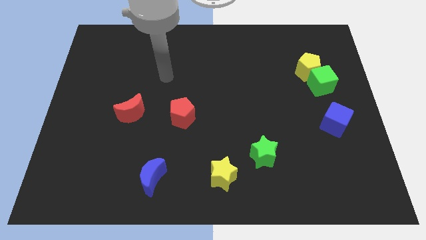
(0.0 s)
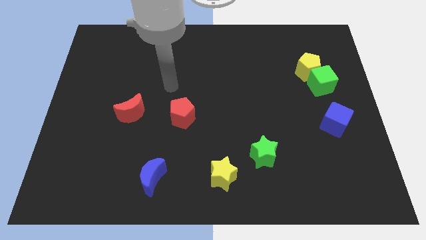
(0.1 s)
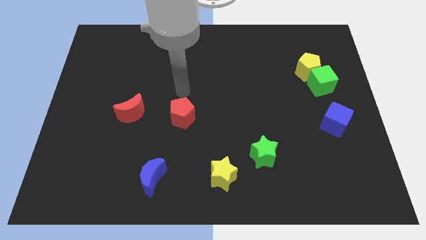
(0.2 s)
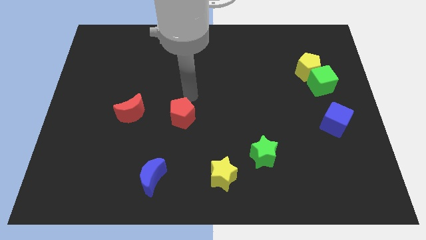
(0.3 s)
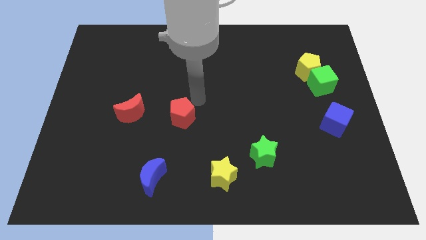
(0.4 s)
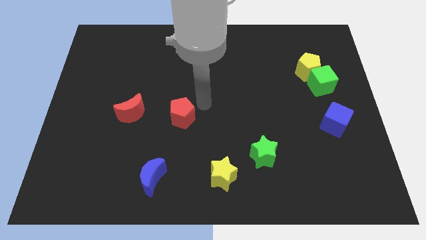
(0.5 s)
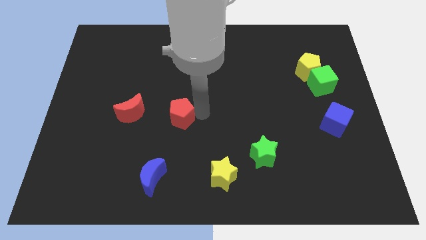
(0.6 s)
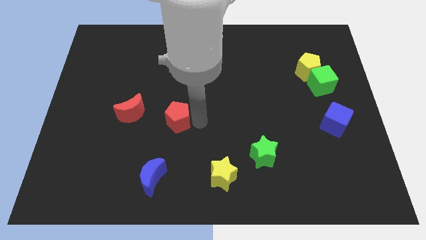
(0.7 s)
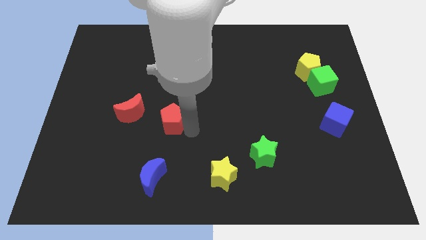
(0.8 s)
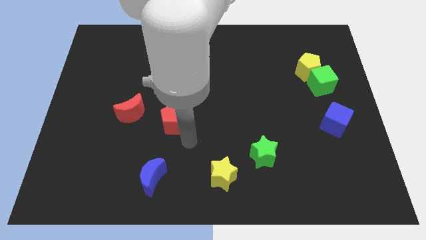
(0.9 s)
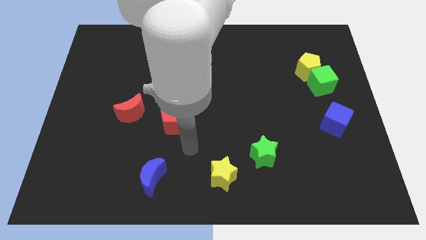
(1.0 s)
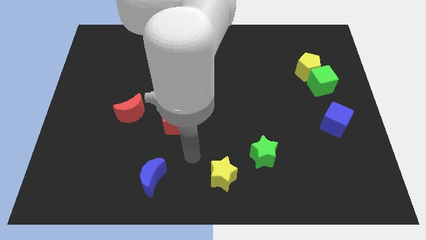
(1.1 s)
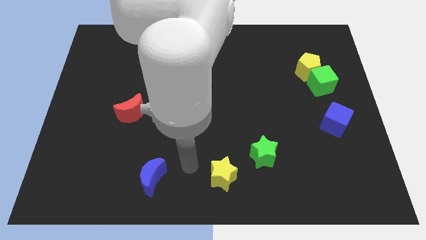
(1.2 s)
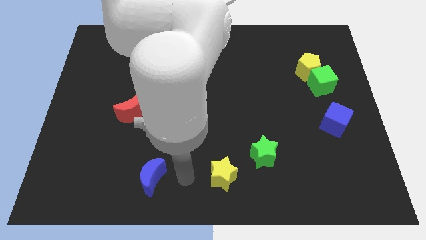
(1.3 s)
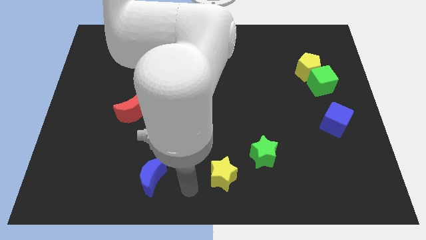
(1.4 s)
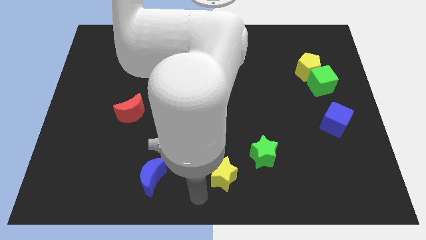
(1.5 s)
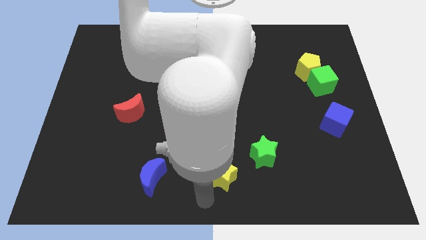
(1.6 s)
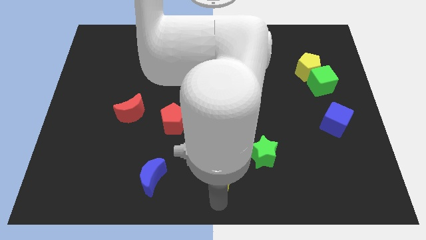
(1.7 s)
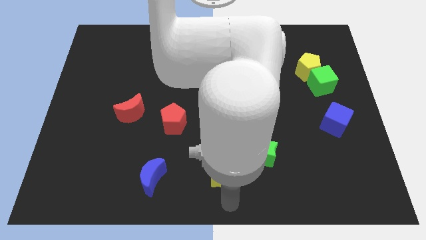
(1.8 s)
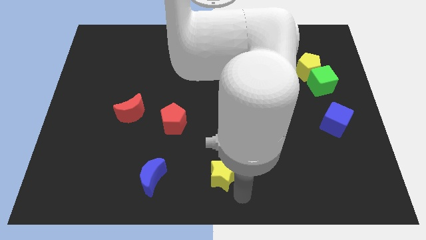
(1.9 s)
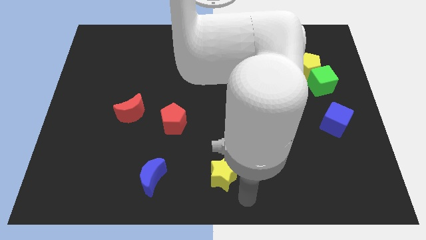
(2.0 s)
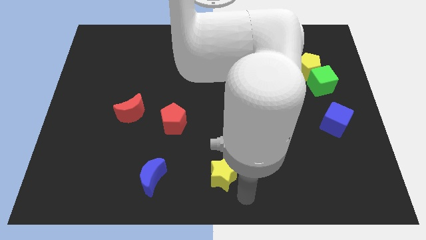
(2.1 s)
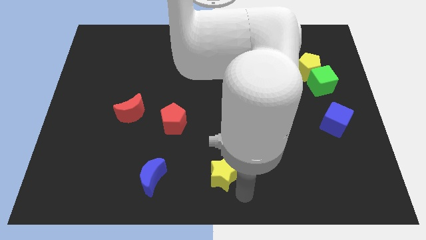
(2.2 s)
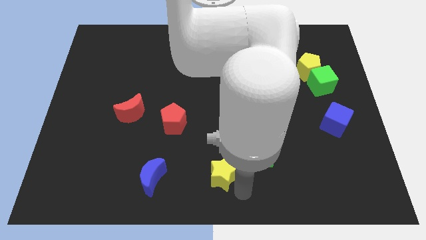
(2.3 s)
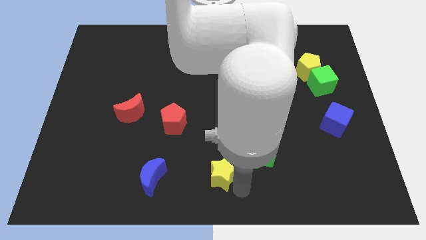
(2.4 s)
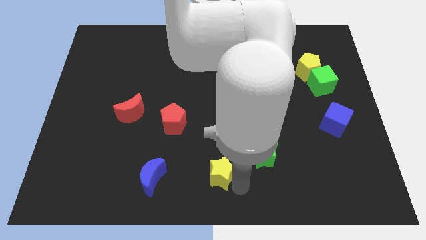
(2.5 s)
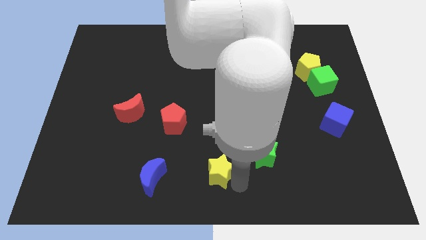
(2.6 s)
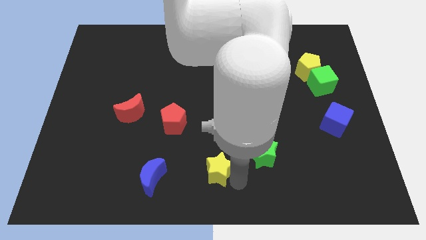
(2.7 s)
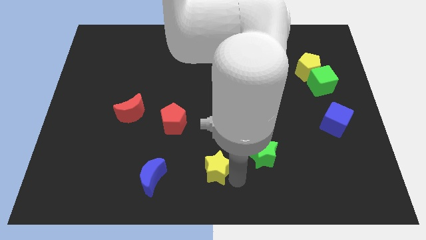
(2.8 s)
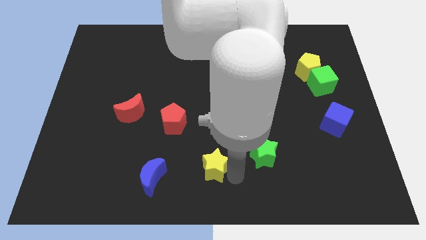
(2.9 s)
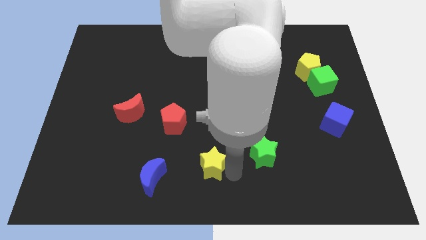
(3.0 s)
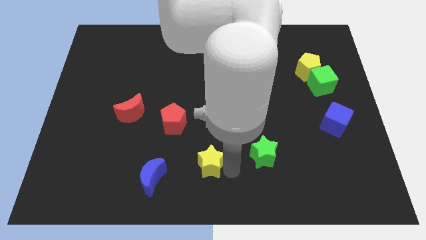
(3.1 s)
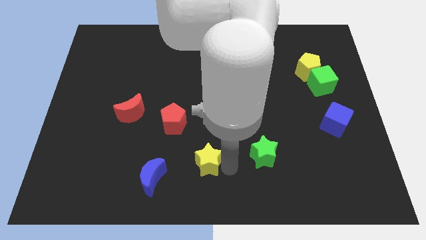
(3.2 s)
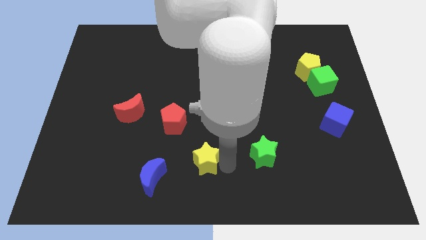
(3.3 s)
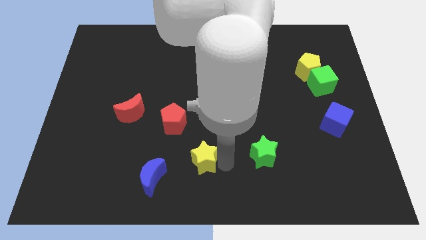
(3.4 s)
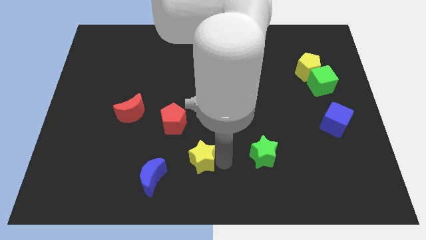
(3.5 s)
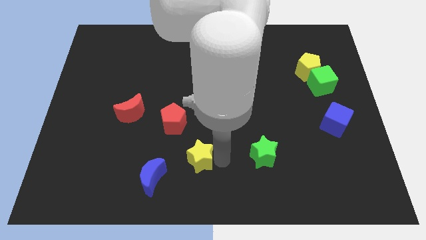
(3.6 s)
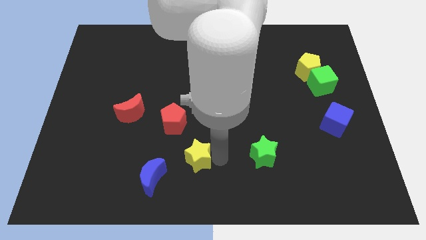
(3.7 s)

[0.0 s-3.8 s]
slightly push the yellow star diagonally up and to the left

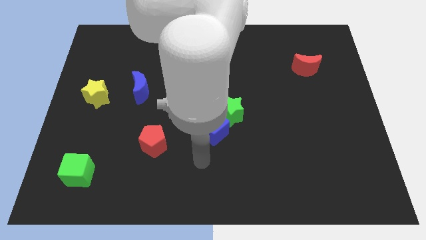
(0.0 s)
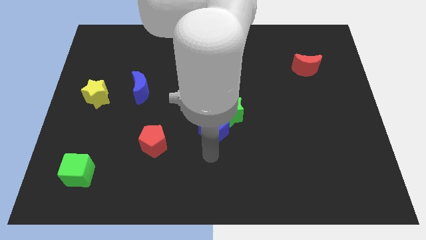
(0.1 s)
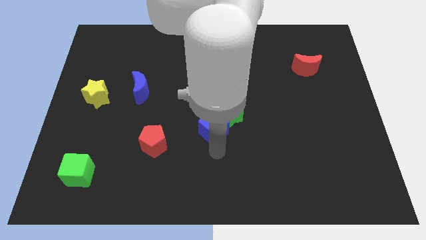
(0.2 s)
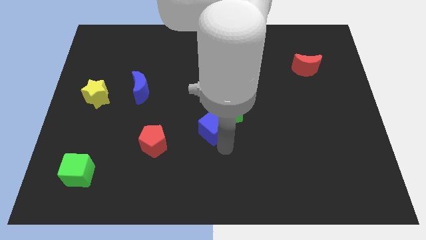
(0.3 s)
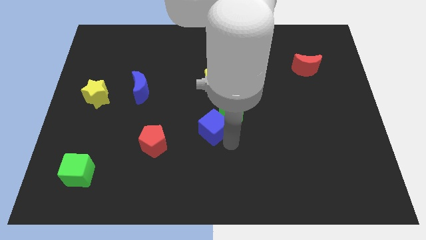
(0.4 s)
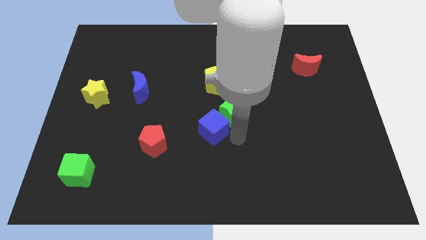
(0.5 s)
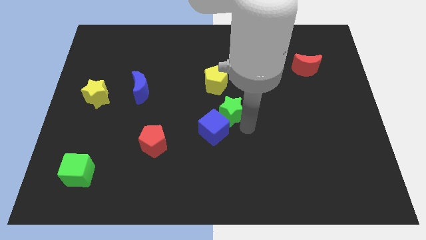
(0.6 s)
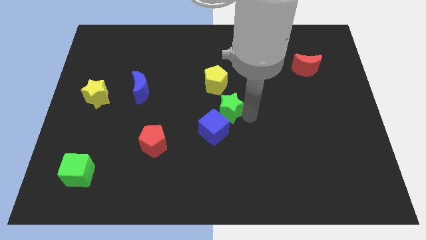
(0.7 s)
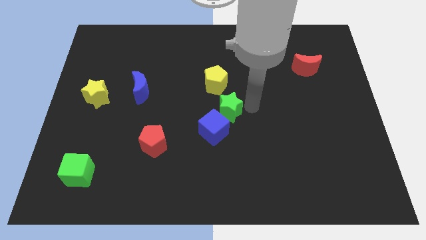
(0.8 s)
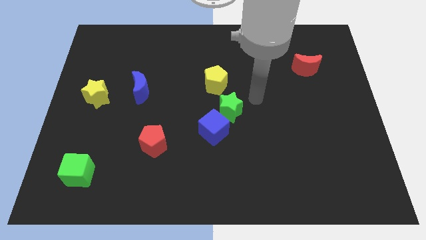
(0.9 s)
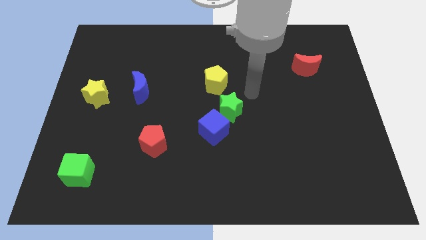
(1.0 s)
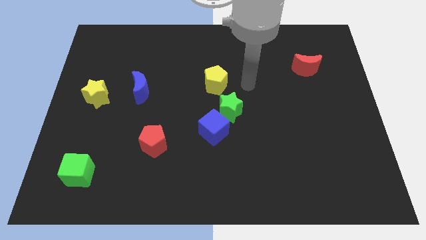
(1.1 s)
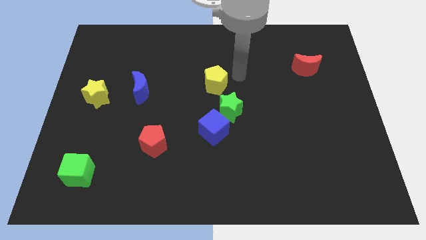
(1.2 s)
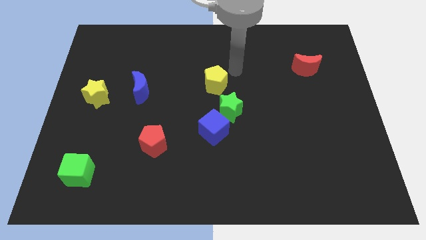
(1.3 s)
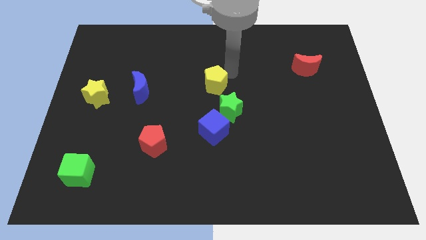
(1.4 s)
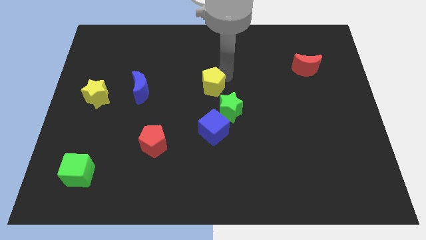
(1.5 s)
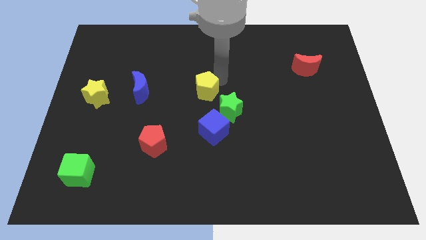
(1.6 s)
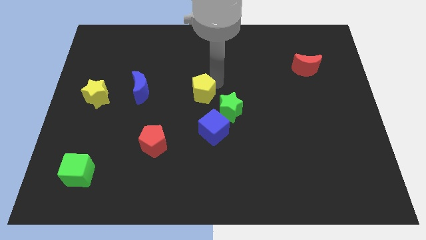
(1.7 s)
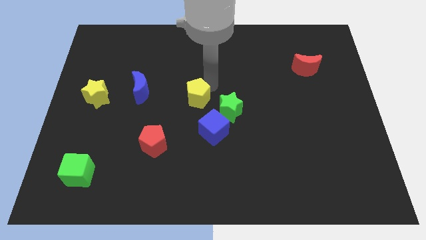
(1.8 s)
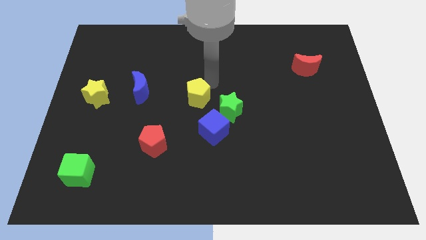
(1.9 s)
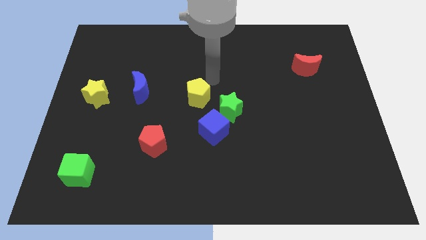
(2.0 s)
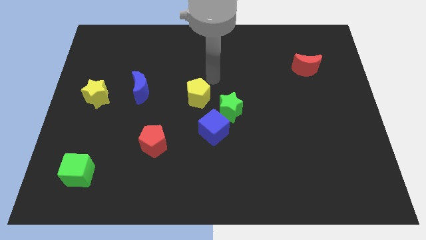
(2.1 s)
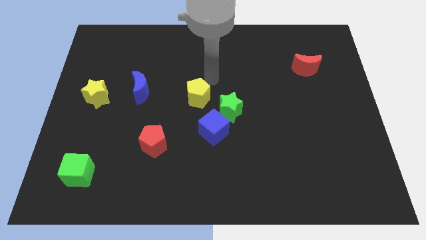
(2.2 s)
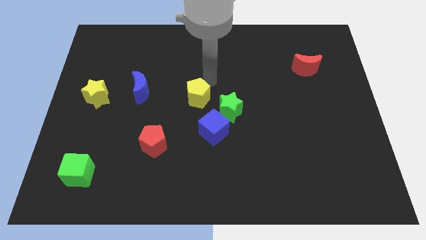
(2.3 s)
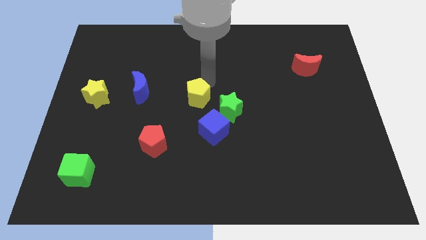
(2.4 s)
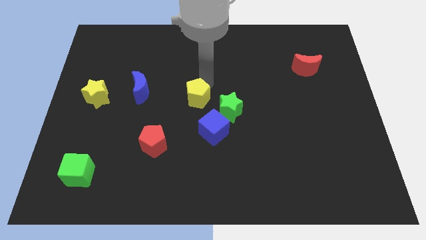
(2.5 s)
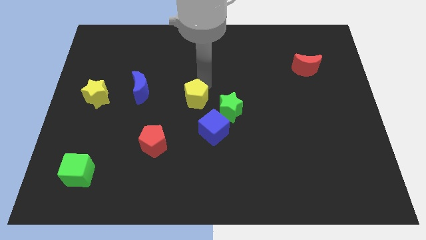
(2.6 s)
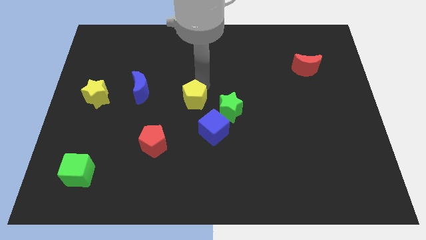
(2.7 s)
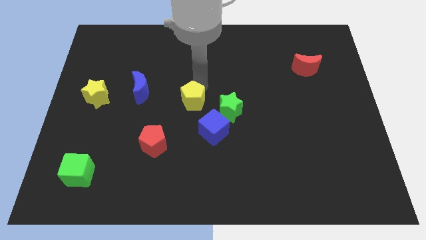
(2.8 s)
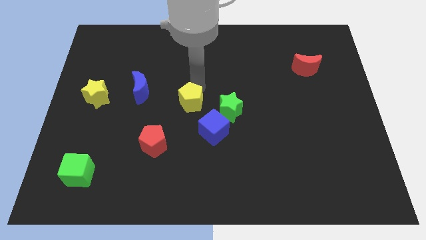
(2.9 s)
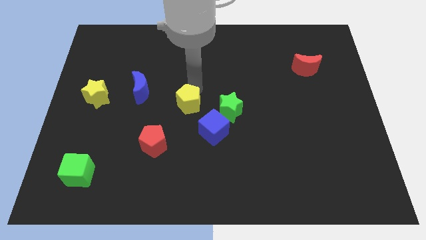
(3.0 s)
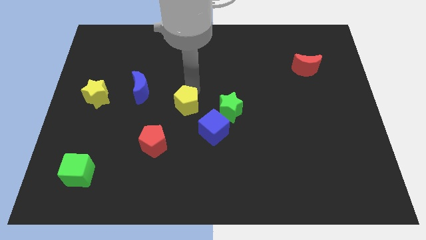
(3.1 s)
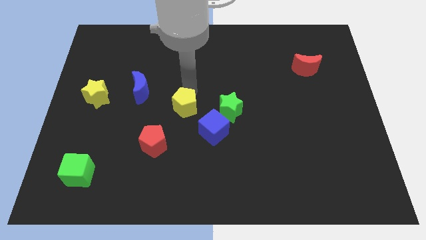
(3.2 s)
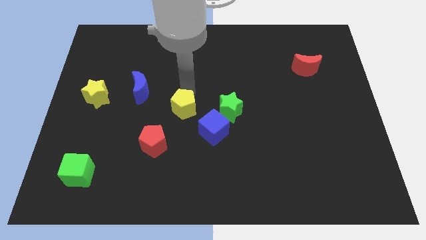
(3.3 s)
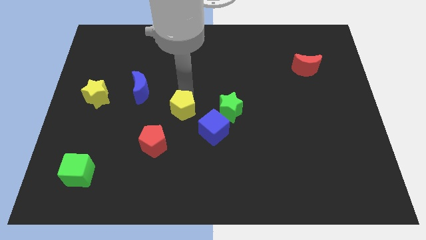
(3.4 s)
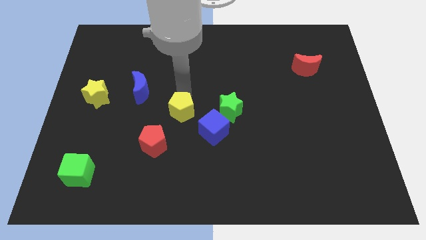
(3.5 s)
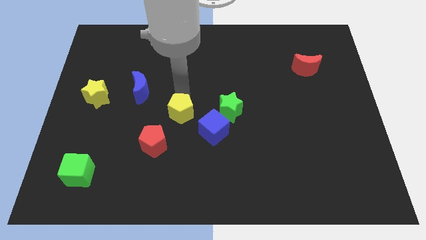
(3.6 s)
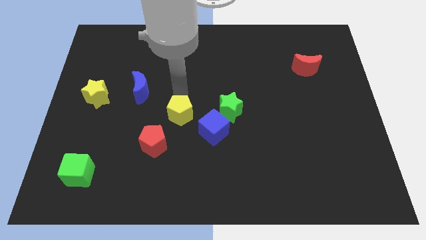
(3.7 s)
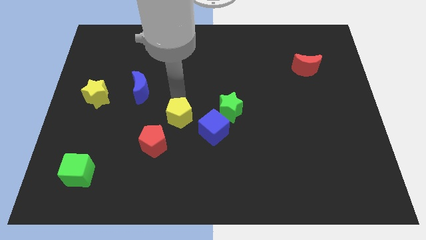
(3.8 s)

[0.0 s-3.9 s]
slide the yellow pentagon down a bit
